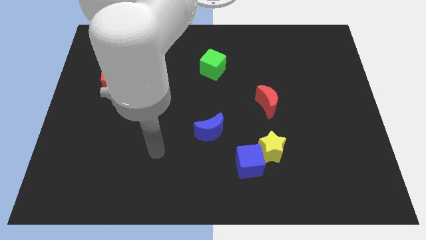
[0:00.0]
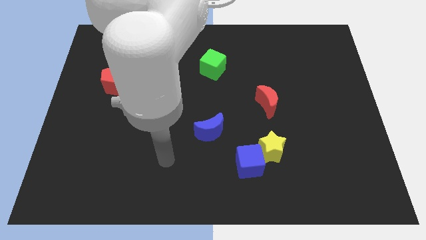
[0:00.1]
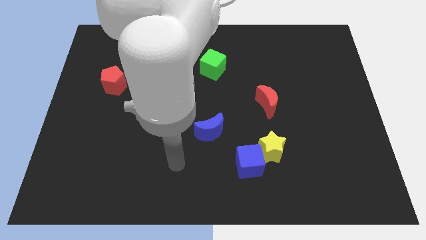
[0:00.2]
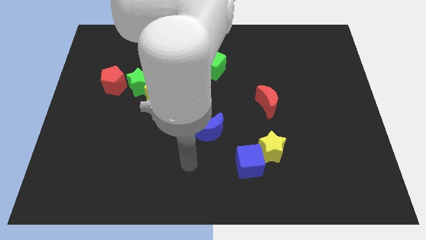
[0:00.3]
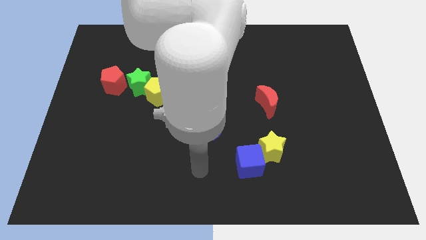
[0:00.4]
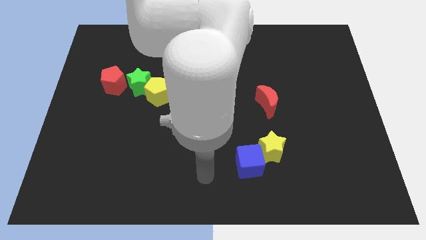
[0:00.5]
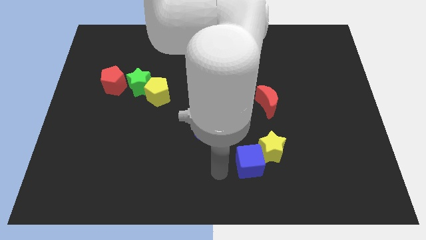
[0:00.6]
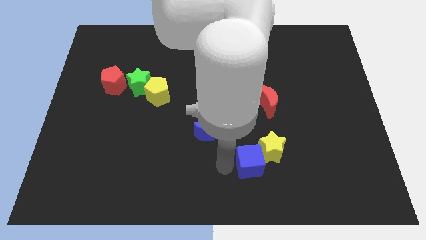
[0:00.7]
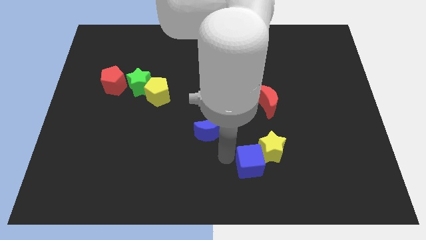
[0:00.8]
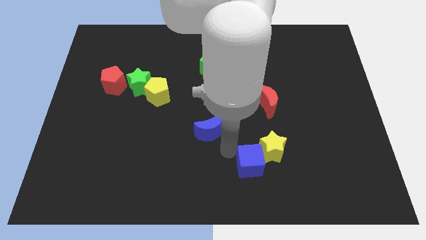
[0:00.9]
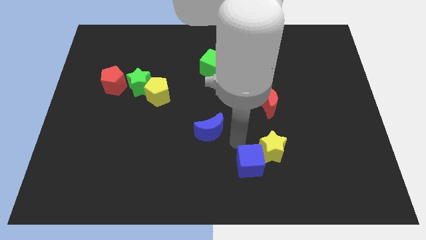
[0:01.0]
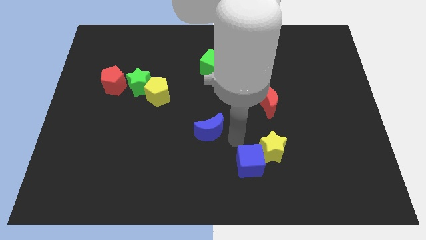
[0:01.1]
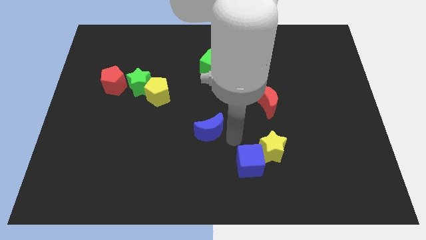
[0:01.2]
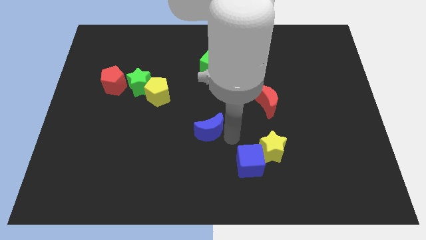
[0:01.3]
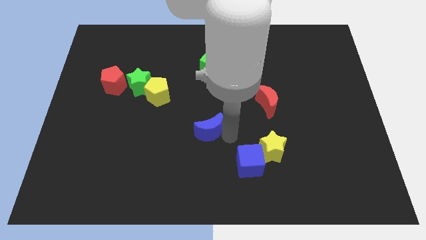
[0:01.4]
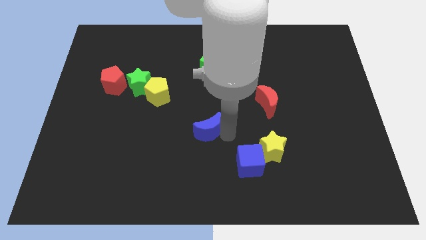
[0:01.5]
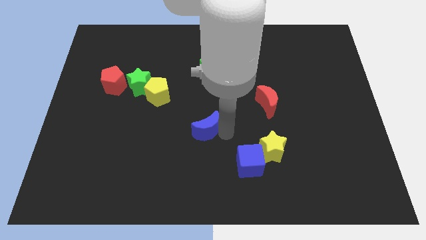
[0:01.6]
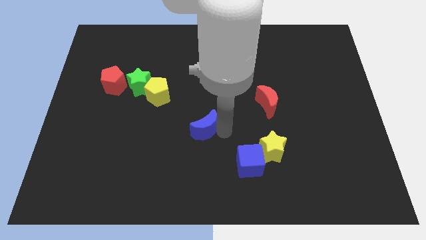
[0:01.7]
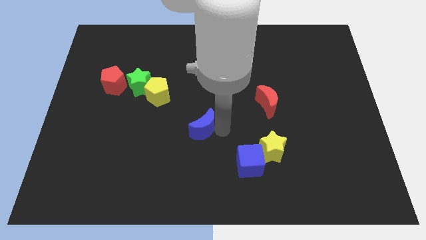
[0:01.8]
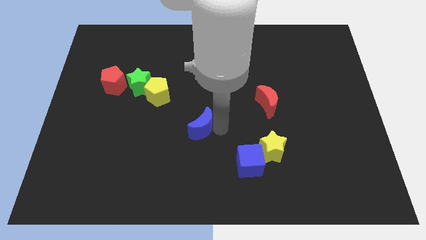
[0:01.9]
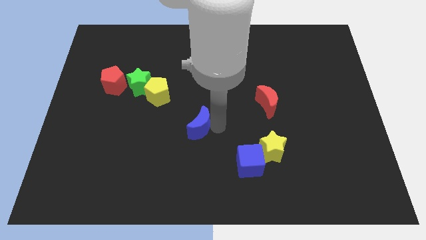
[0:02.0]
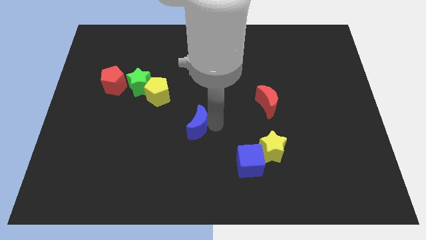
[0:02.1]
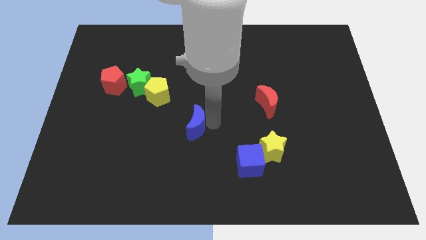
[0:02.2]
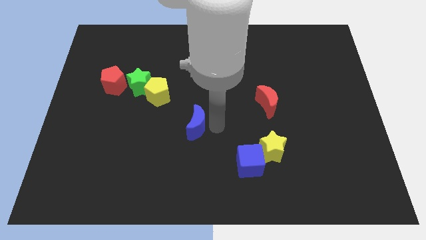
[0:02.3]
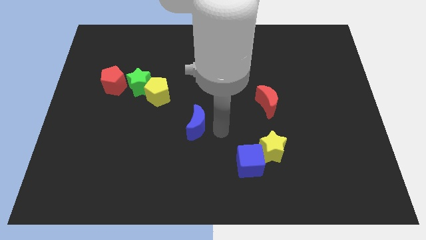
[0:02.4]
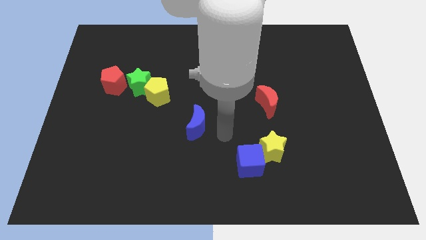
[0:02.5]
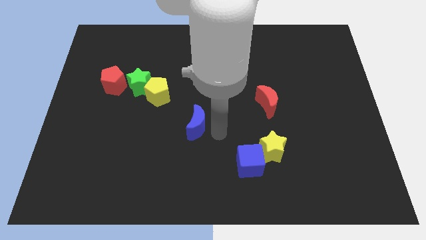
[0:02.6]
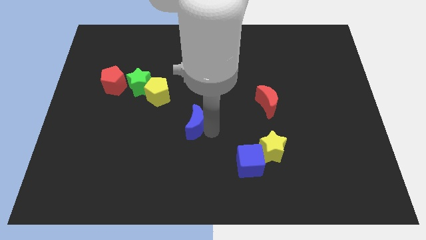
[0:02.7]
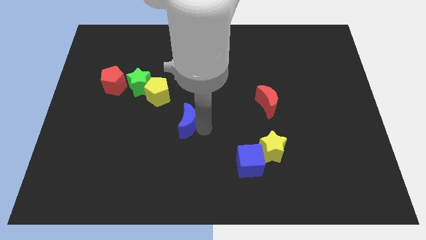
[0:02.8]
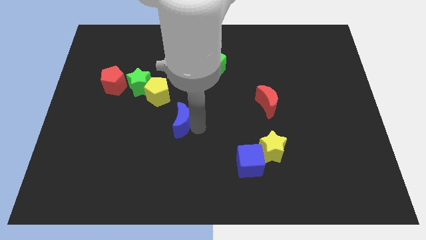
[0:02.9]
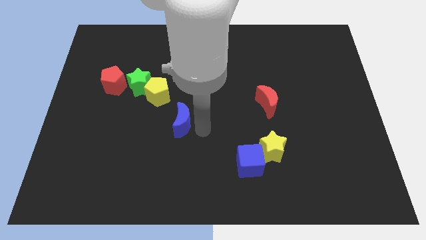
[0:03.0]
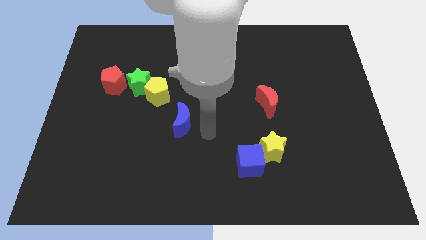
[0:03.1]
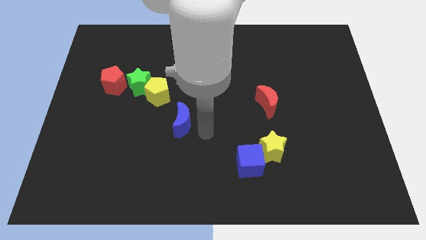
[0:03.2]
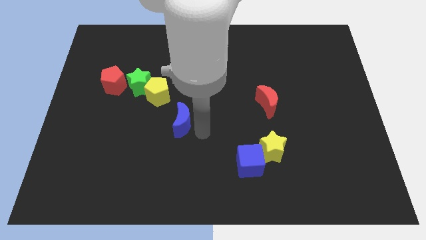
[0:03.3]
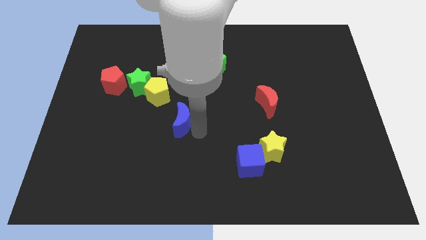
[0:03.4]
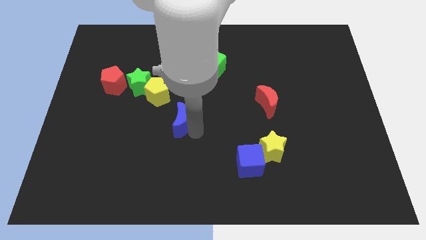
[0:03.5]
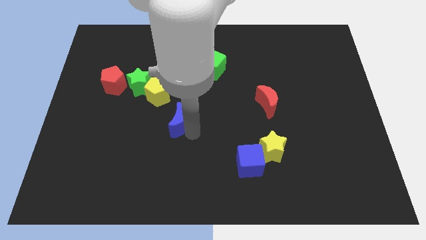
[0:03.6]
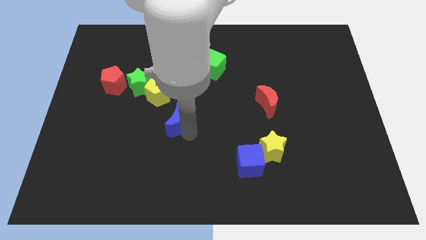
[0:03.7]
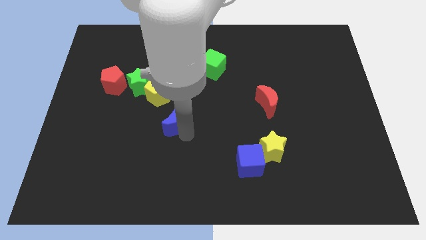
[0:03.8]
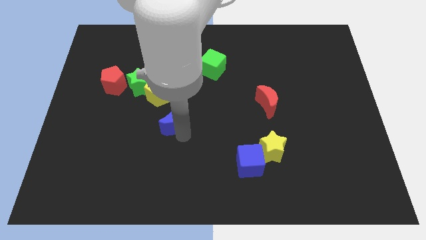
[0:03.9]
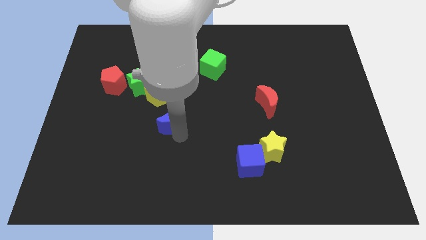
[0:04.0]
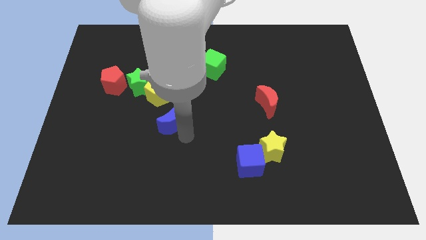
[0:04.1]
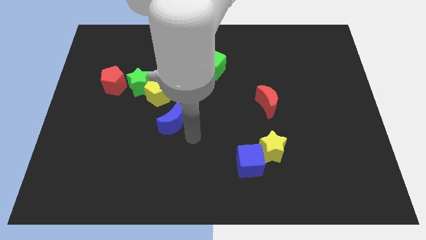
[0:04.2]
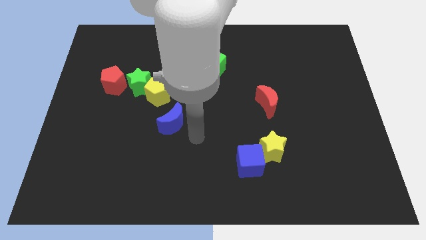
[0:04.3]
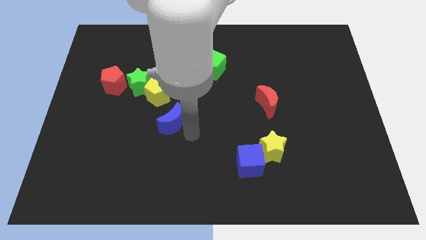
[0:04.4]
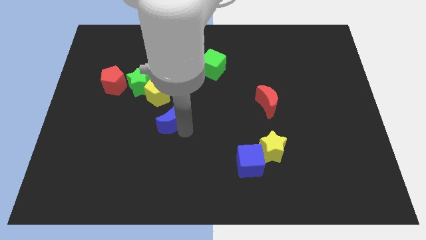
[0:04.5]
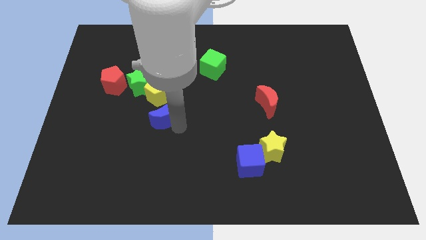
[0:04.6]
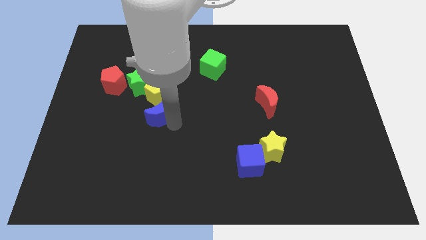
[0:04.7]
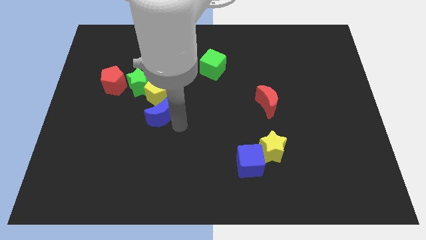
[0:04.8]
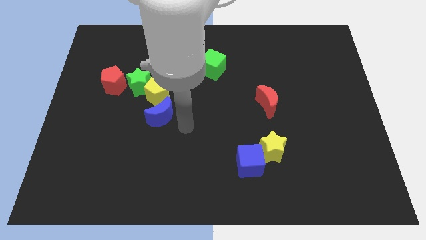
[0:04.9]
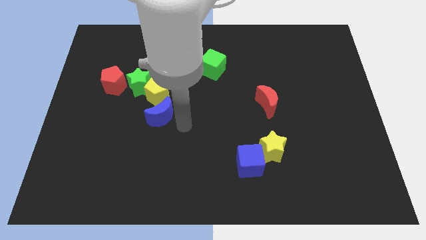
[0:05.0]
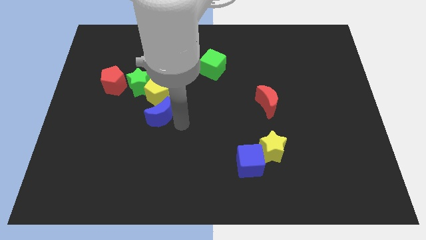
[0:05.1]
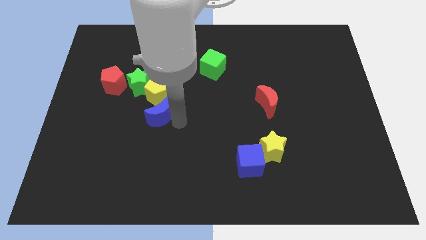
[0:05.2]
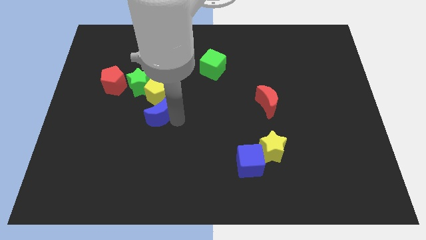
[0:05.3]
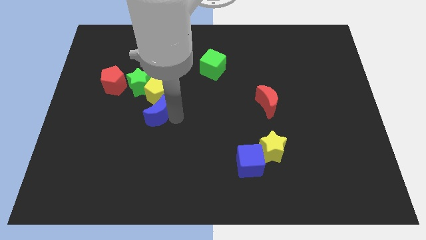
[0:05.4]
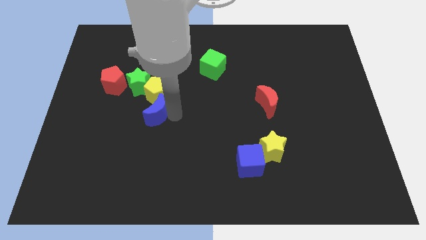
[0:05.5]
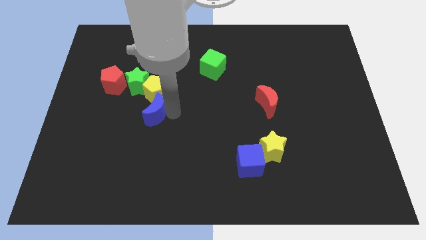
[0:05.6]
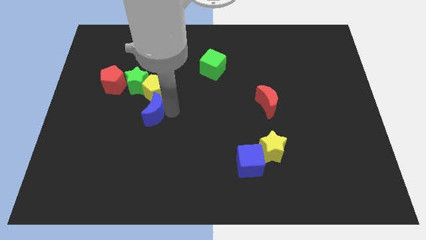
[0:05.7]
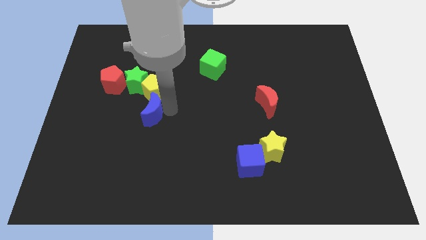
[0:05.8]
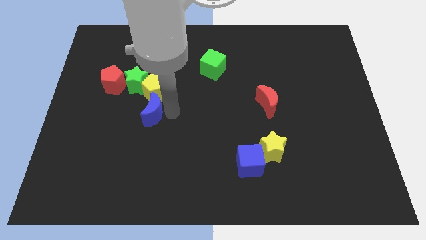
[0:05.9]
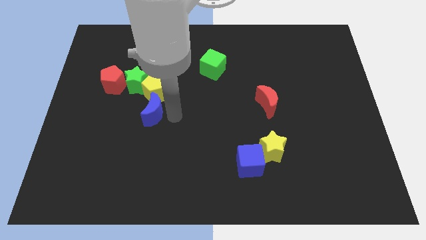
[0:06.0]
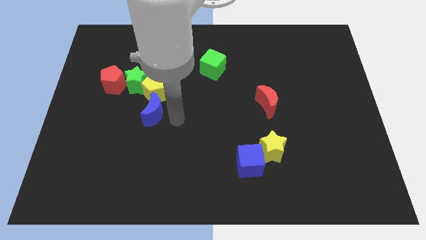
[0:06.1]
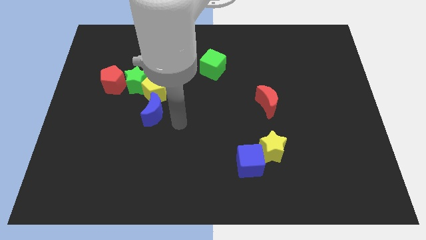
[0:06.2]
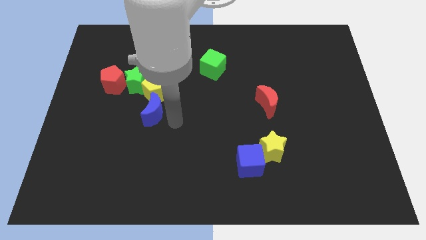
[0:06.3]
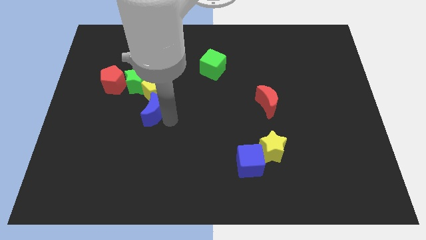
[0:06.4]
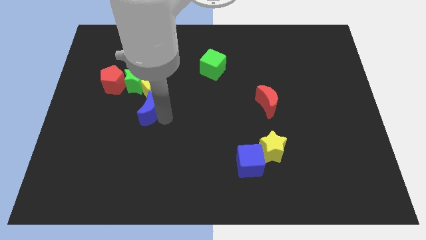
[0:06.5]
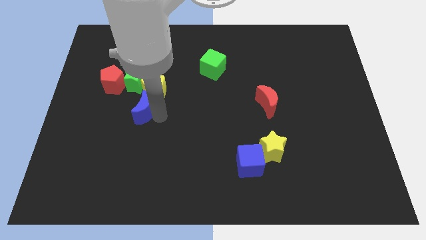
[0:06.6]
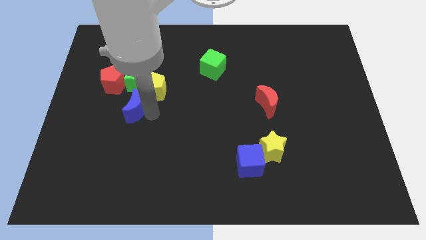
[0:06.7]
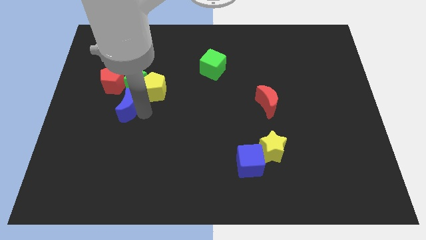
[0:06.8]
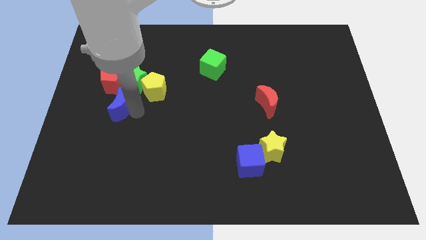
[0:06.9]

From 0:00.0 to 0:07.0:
put the blue moon to the bottom left side of the green star
